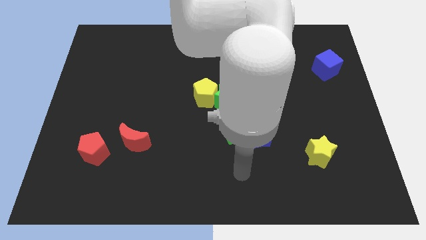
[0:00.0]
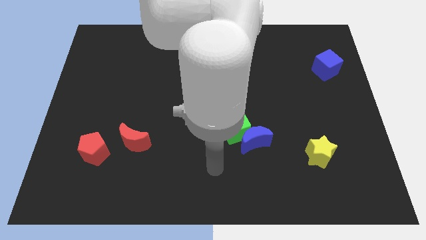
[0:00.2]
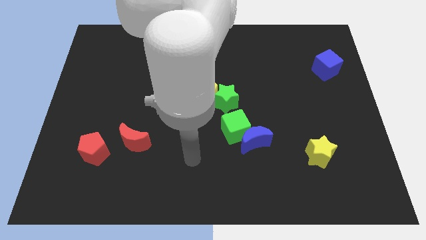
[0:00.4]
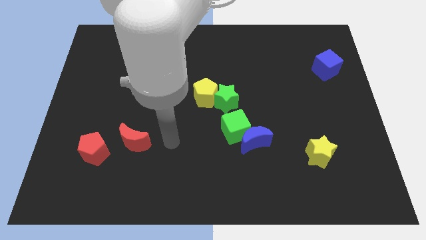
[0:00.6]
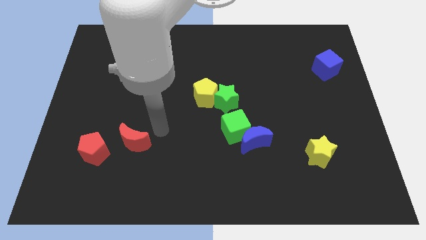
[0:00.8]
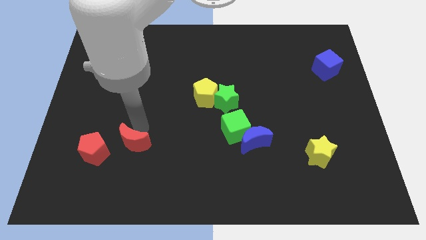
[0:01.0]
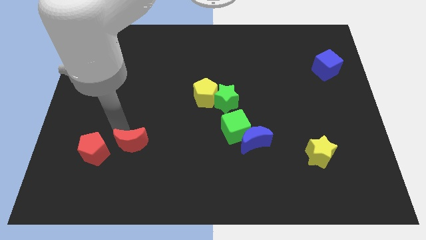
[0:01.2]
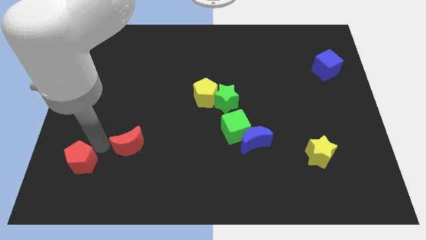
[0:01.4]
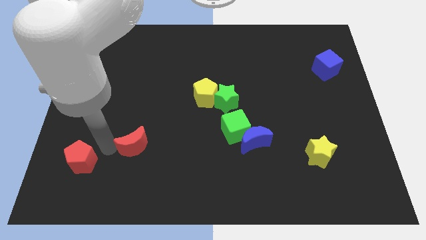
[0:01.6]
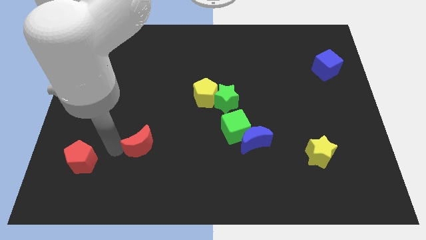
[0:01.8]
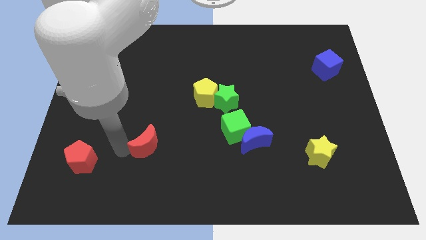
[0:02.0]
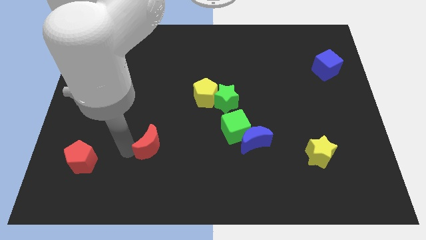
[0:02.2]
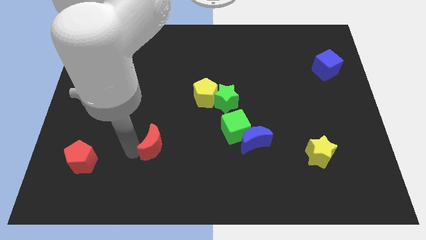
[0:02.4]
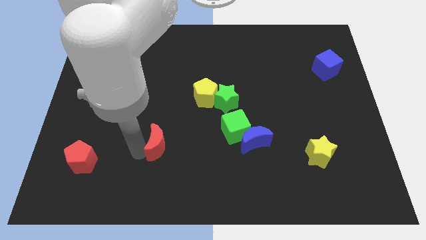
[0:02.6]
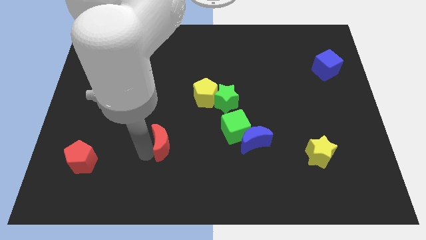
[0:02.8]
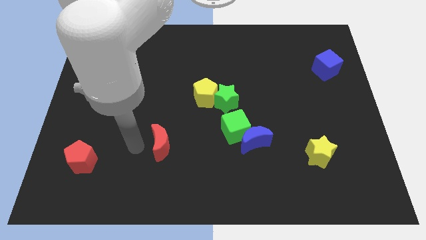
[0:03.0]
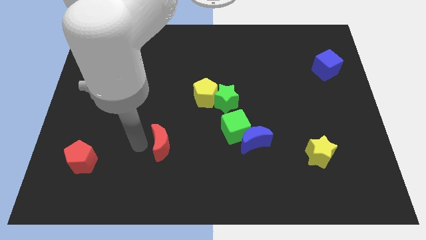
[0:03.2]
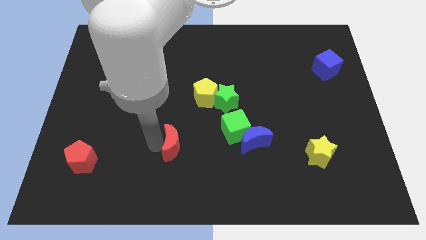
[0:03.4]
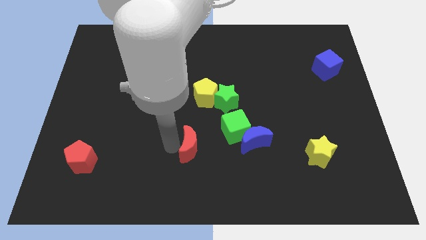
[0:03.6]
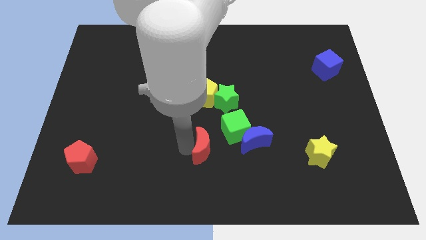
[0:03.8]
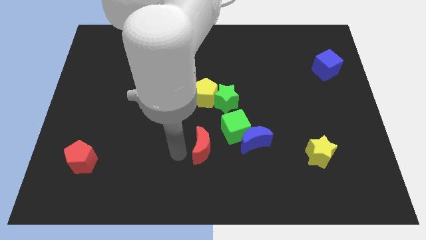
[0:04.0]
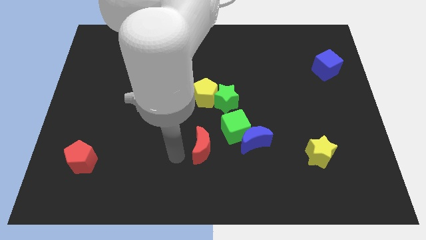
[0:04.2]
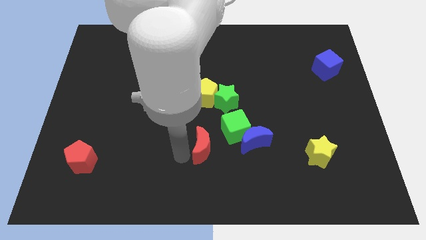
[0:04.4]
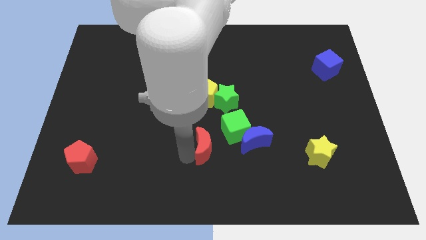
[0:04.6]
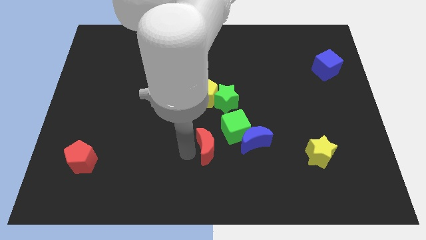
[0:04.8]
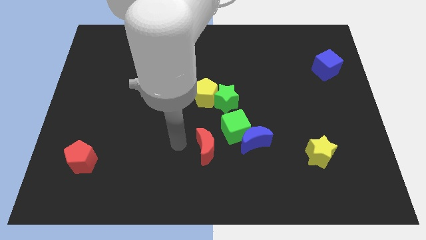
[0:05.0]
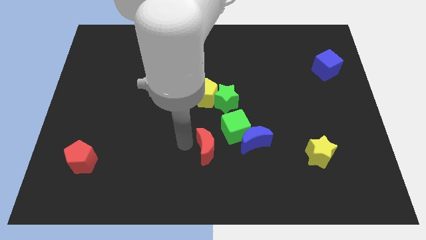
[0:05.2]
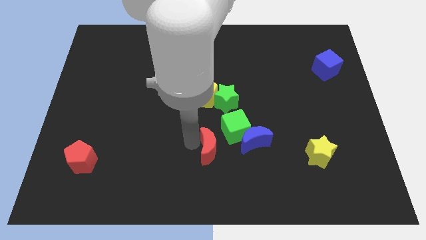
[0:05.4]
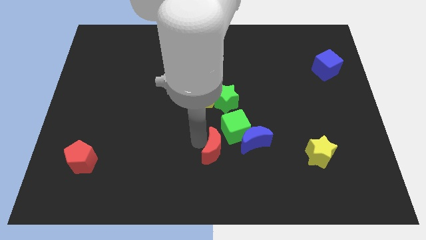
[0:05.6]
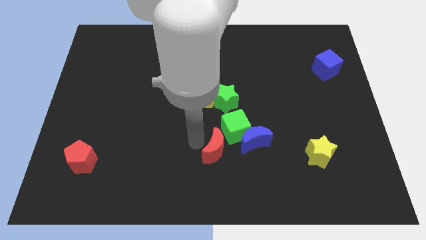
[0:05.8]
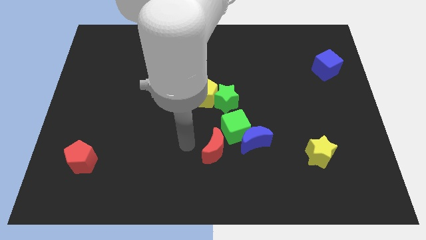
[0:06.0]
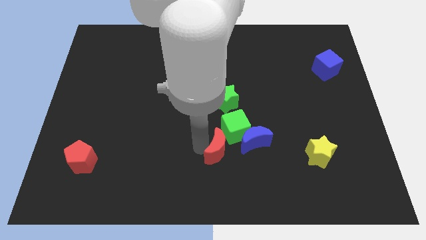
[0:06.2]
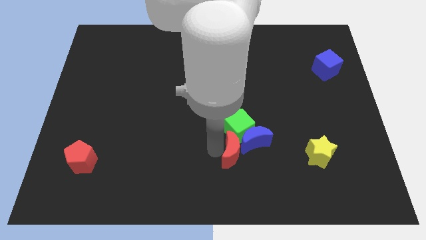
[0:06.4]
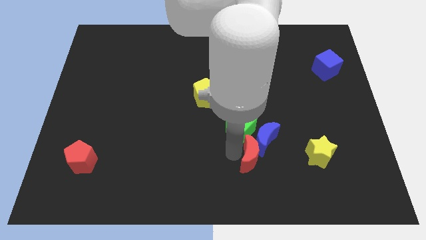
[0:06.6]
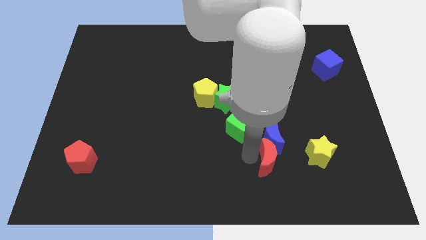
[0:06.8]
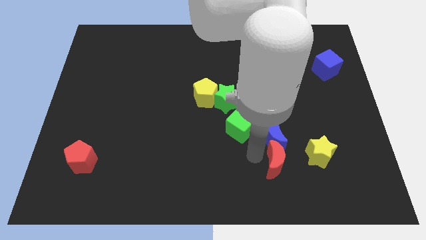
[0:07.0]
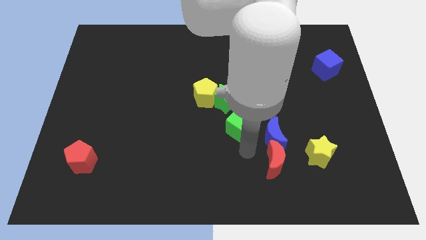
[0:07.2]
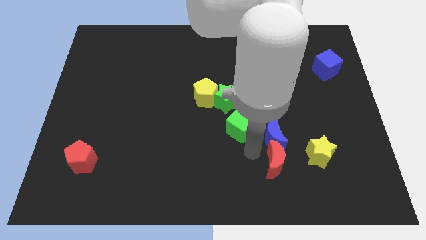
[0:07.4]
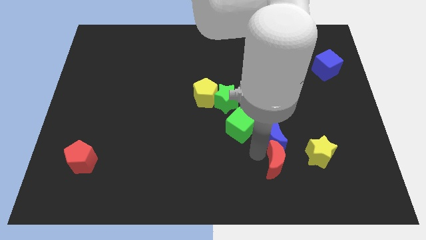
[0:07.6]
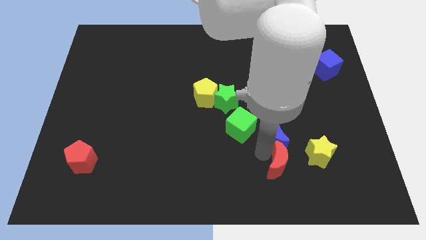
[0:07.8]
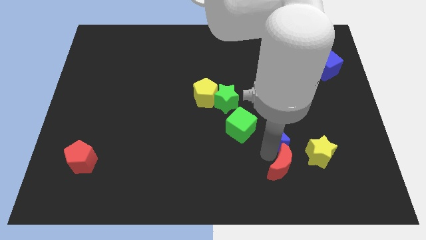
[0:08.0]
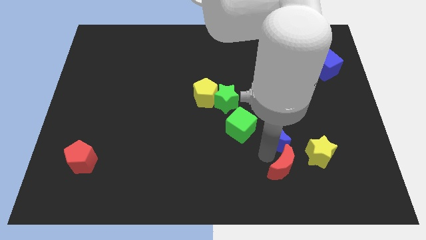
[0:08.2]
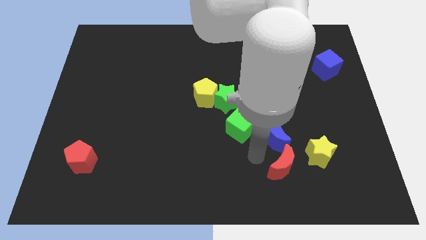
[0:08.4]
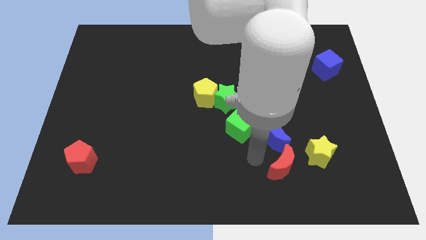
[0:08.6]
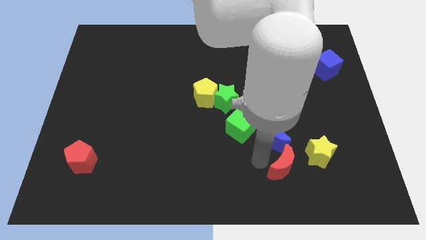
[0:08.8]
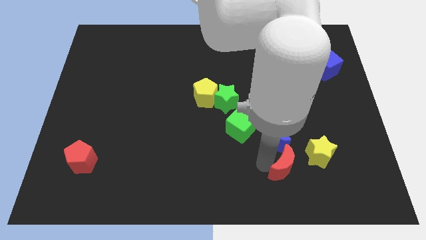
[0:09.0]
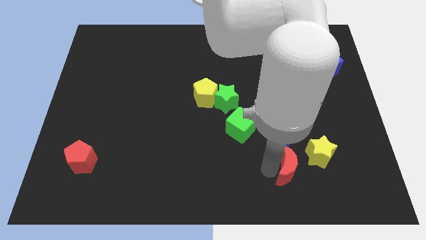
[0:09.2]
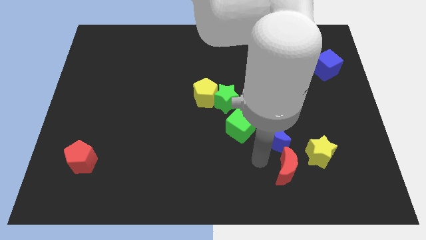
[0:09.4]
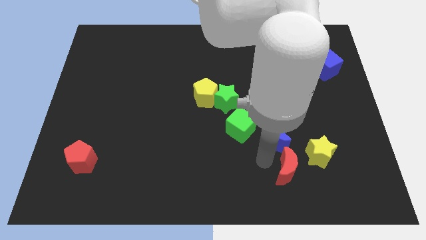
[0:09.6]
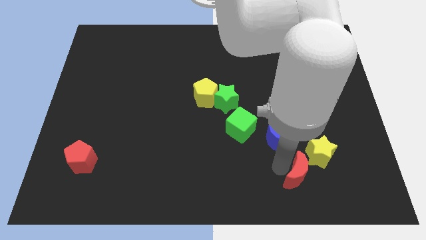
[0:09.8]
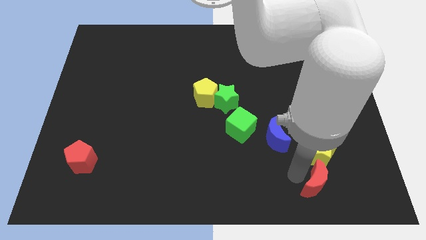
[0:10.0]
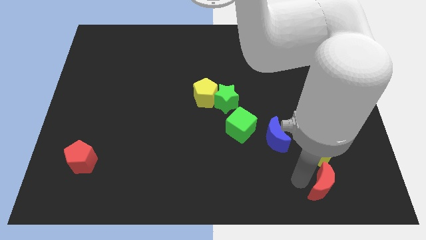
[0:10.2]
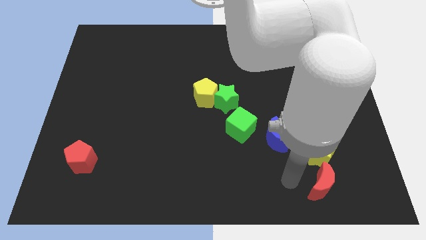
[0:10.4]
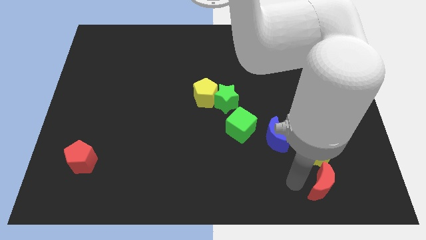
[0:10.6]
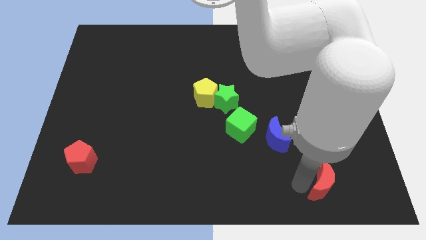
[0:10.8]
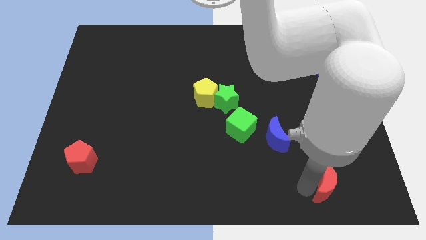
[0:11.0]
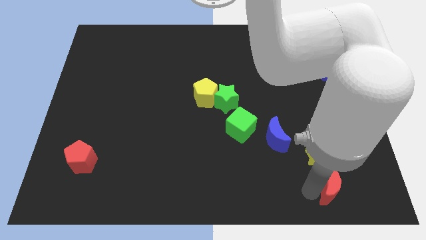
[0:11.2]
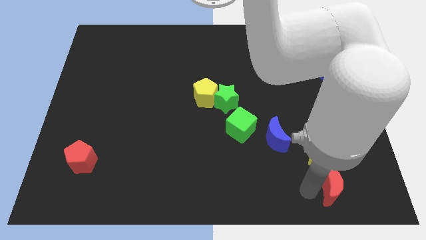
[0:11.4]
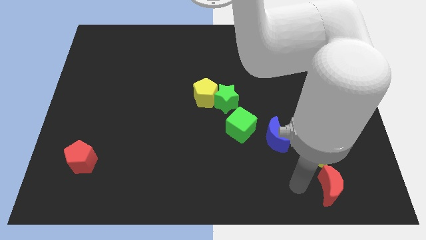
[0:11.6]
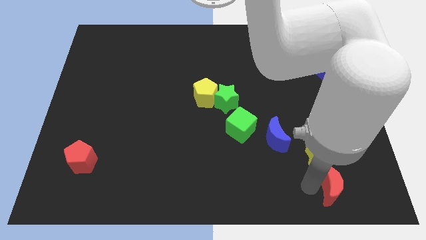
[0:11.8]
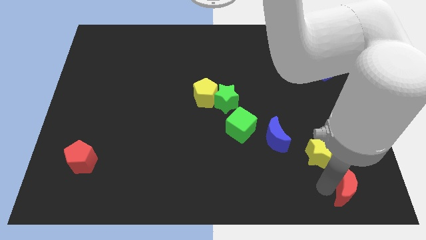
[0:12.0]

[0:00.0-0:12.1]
move the red moon to the bottom right of the board
